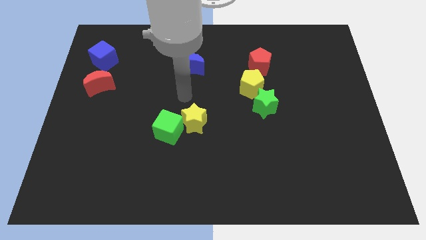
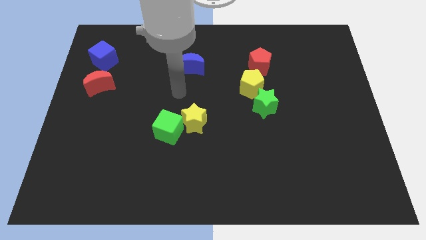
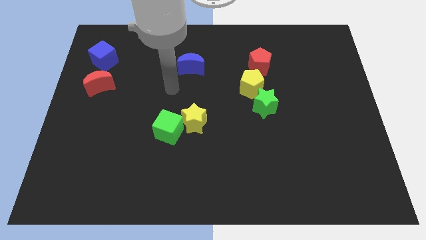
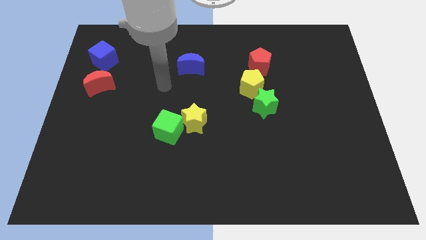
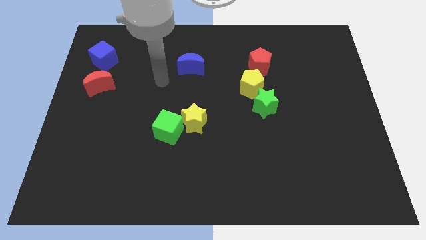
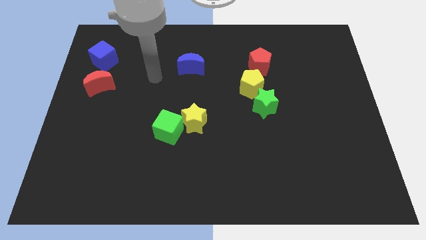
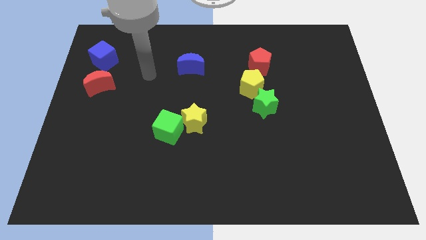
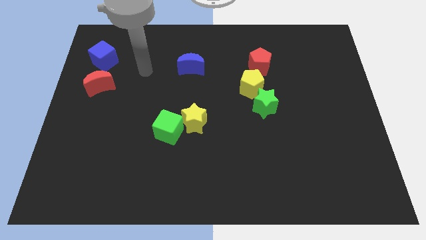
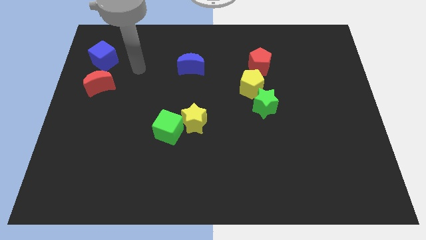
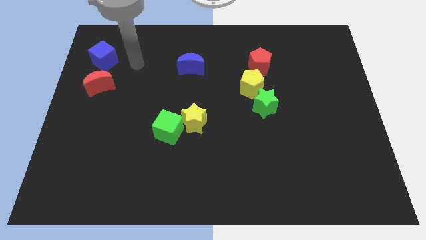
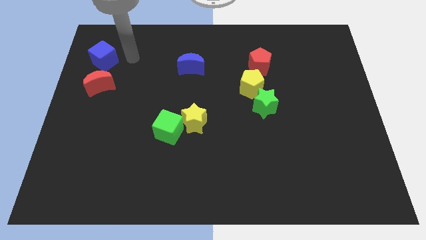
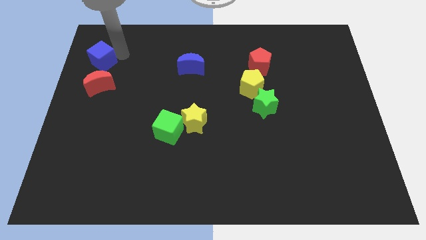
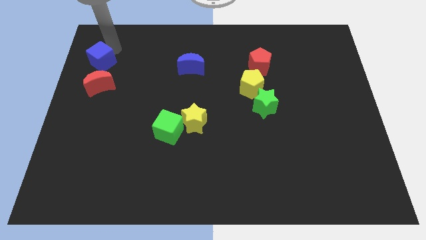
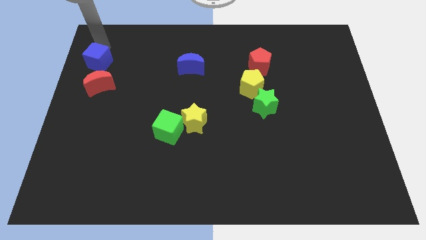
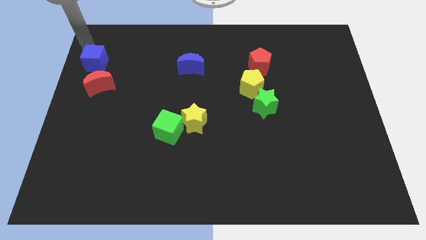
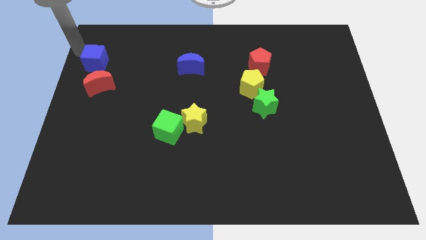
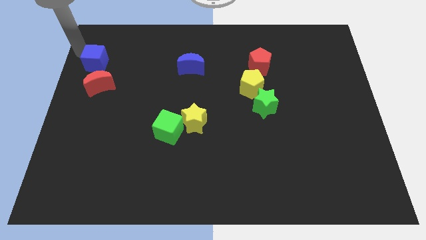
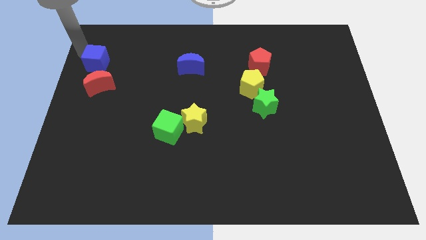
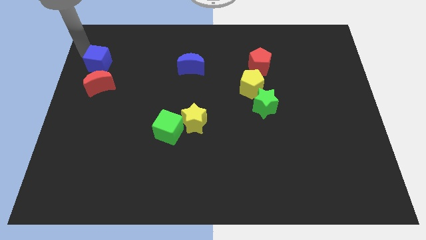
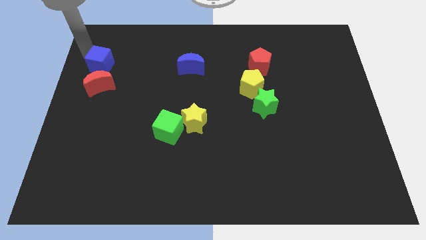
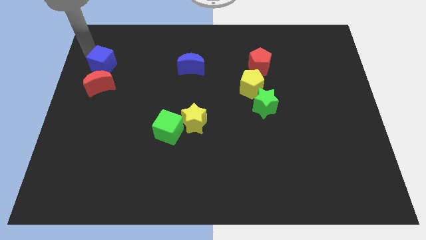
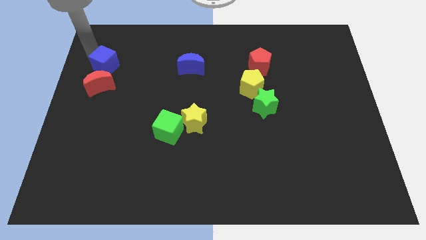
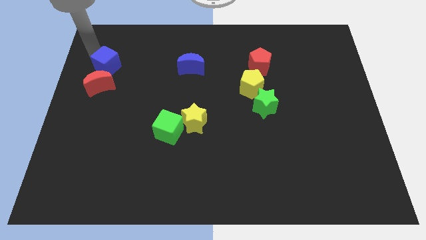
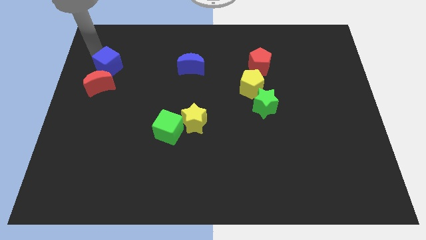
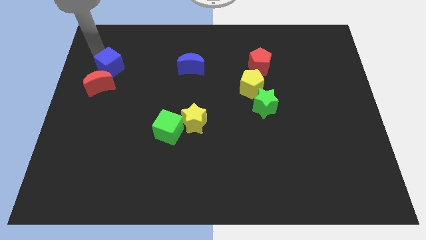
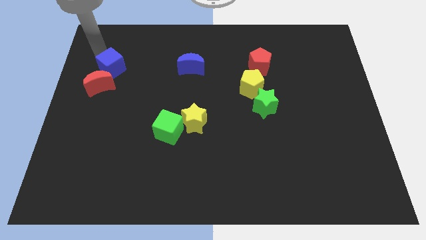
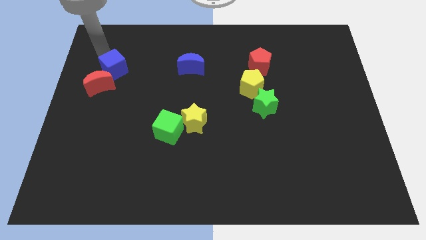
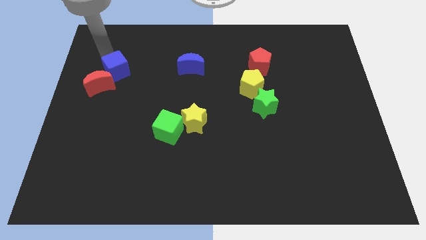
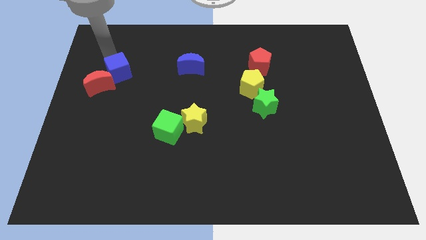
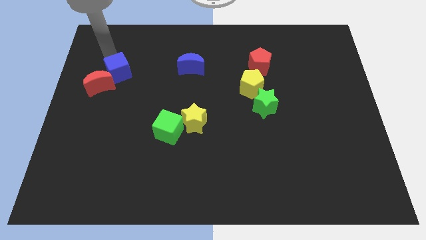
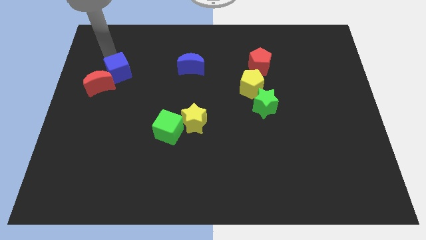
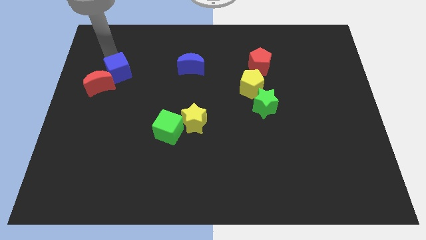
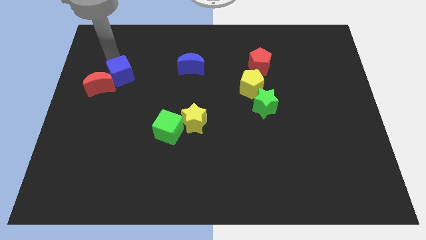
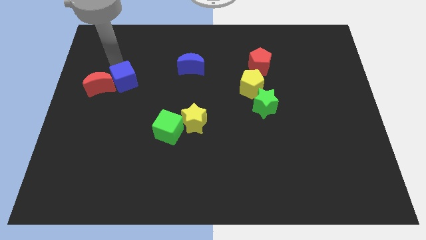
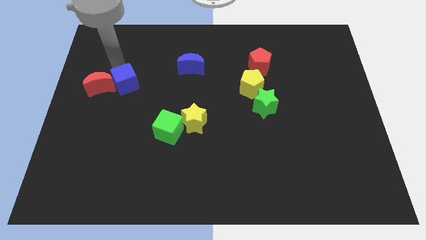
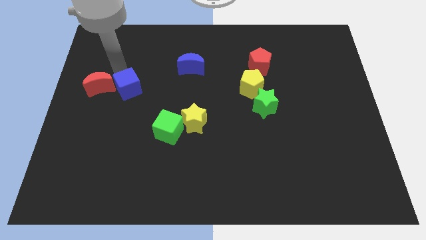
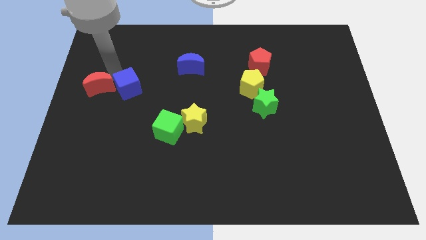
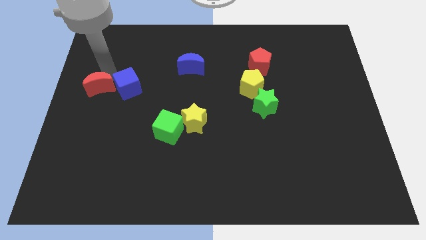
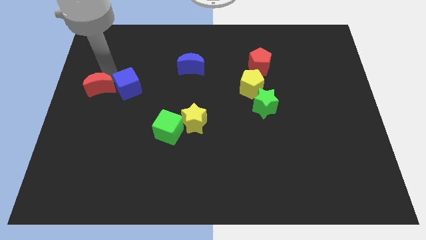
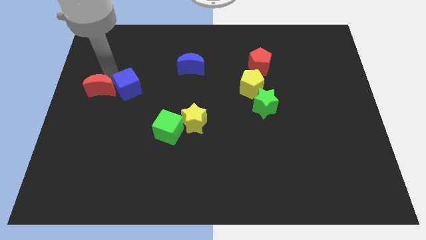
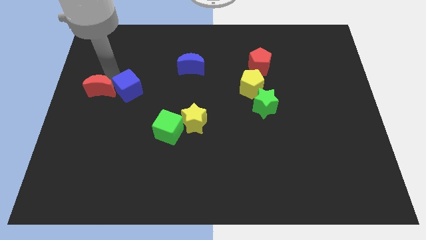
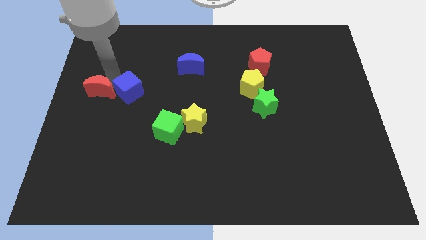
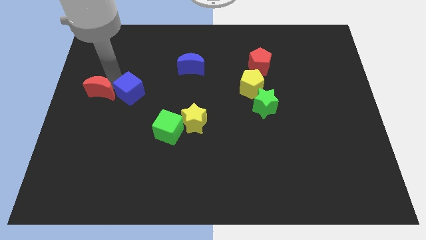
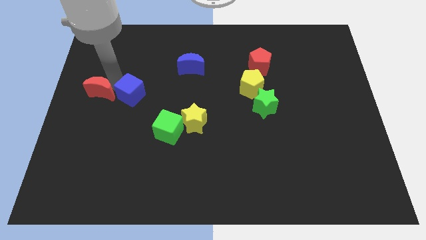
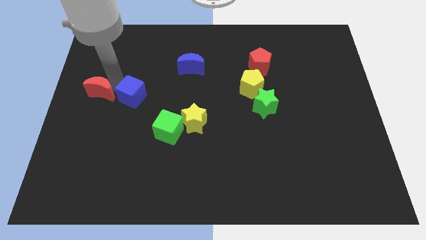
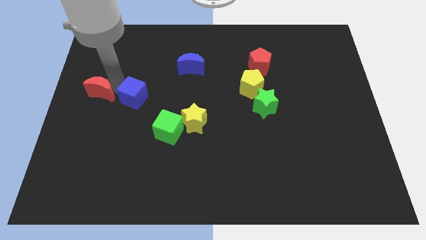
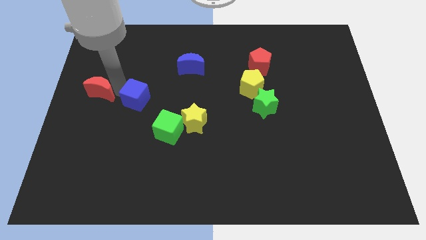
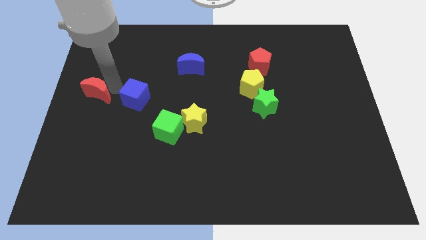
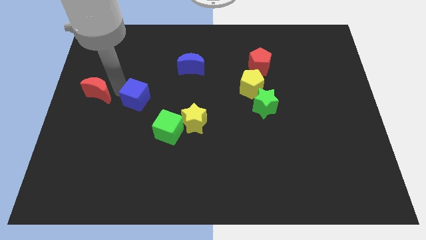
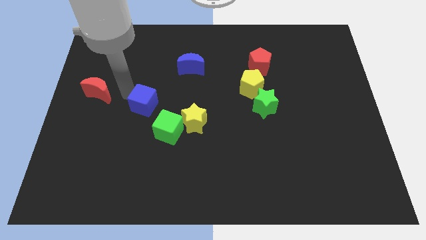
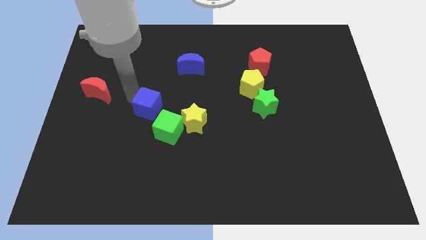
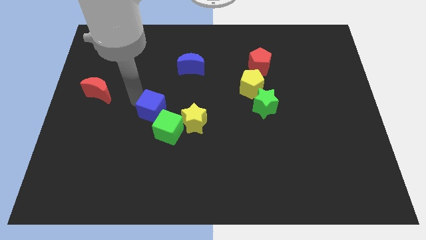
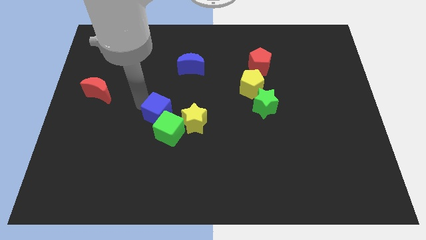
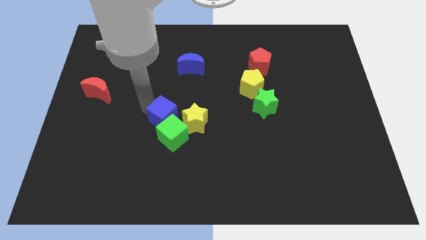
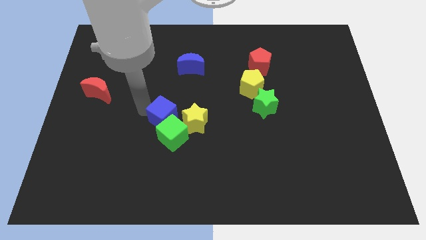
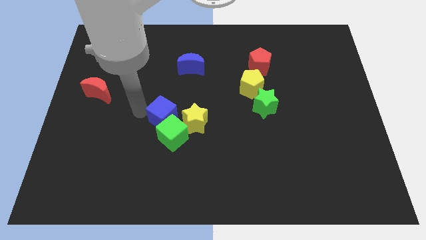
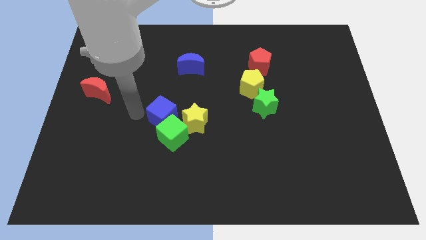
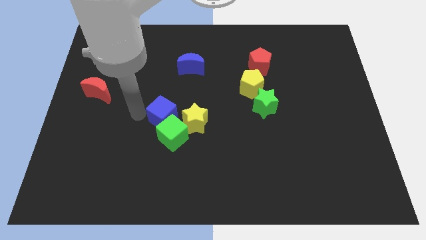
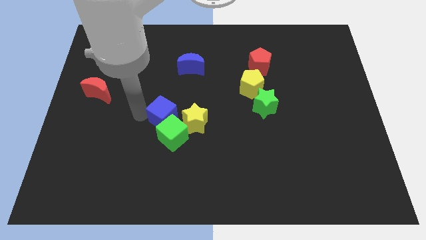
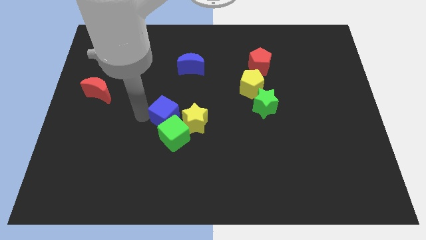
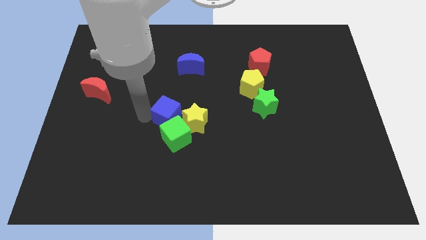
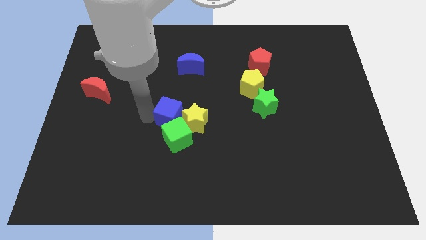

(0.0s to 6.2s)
push the blue cube next to the yellow star
